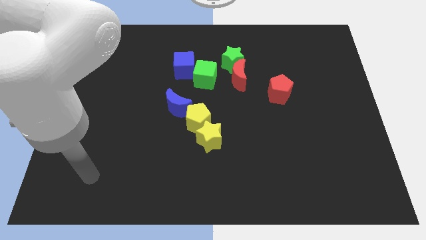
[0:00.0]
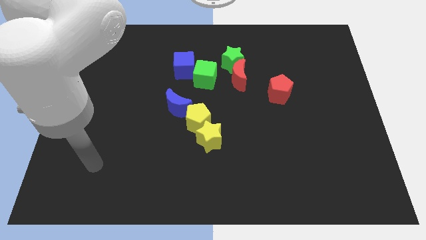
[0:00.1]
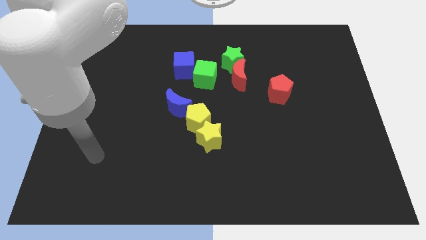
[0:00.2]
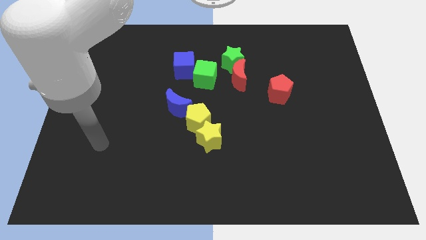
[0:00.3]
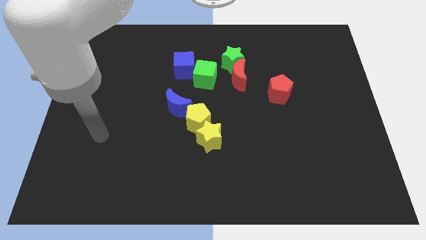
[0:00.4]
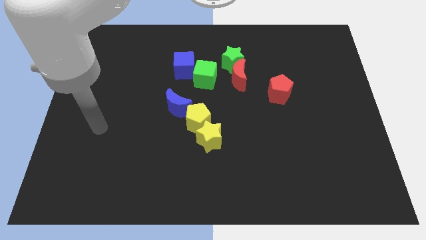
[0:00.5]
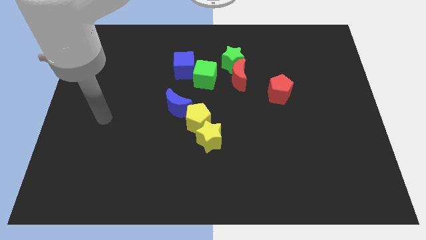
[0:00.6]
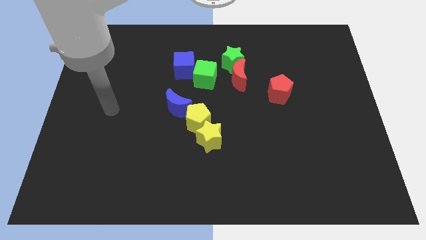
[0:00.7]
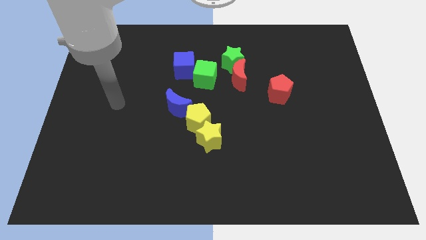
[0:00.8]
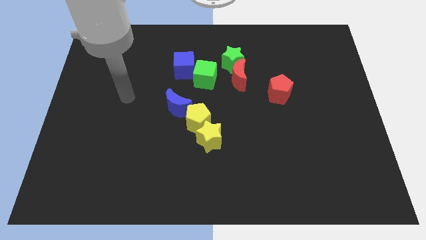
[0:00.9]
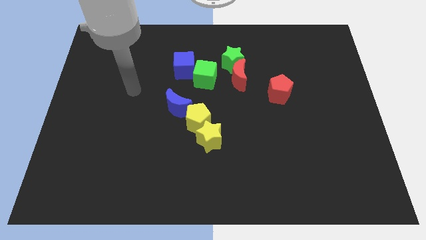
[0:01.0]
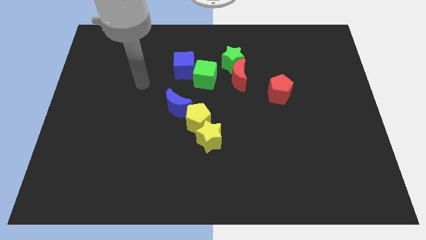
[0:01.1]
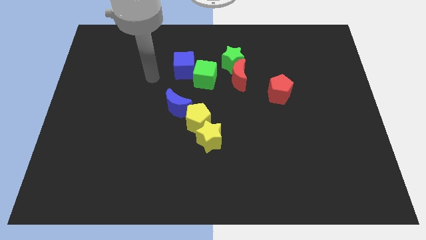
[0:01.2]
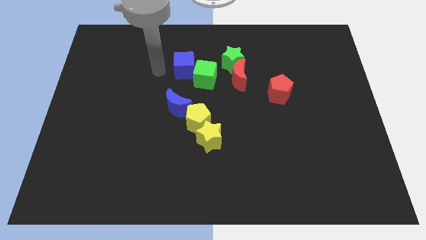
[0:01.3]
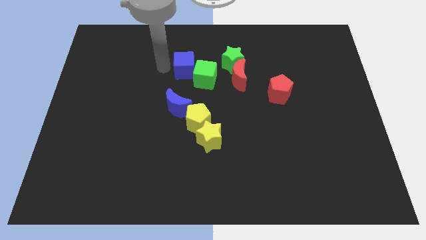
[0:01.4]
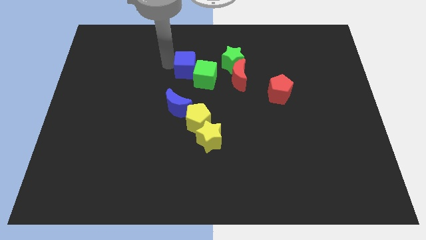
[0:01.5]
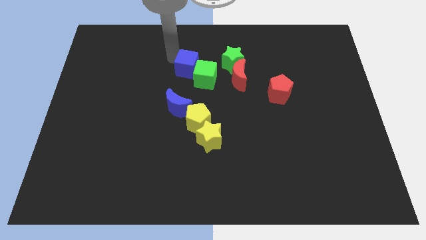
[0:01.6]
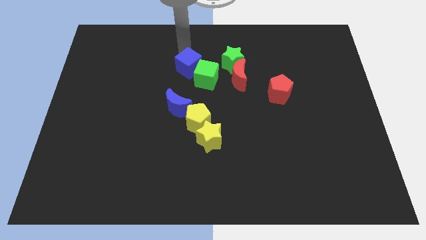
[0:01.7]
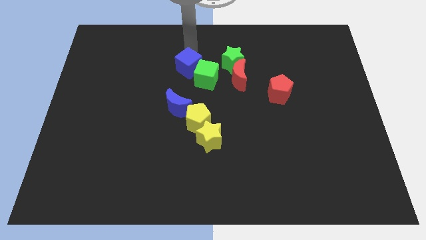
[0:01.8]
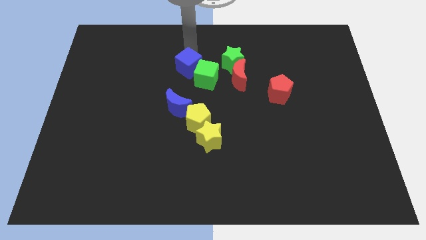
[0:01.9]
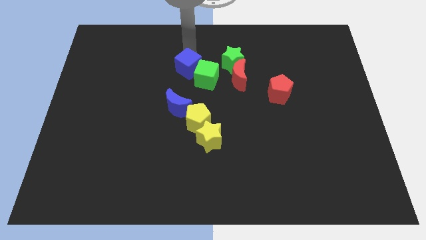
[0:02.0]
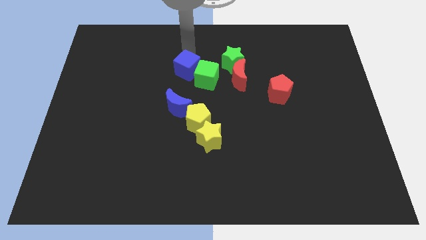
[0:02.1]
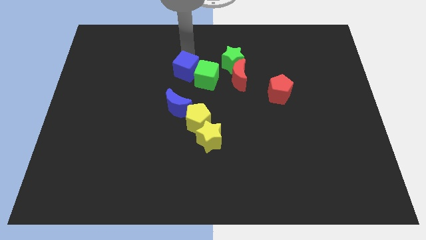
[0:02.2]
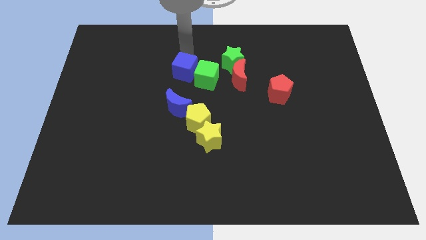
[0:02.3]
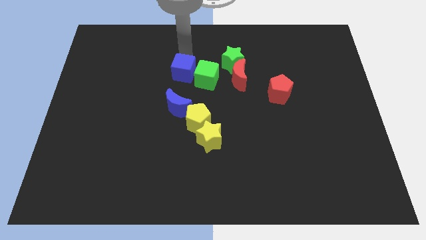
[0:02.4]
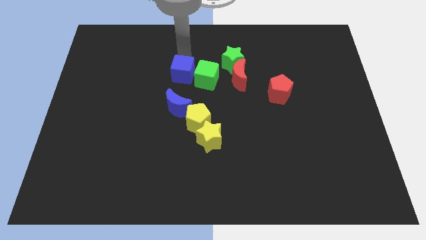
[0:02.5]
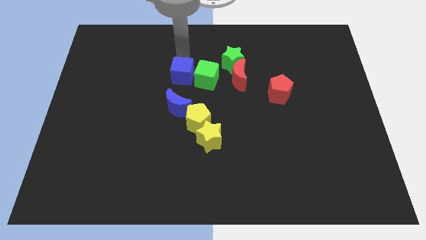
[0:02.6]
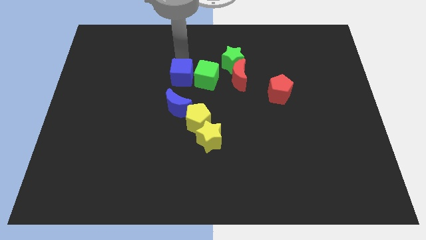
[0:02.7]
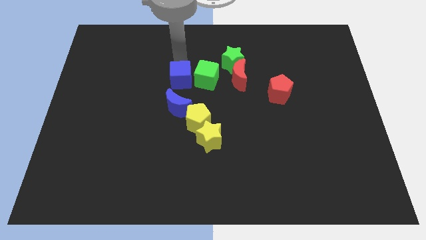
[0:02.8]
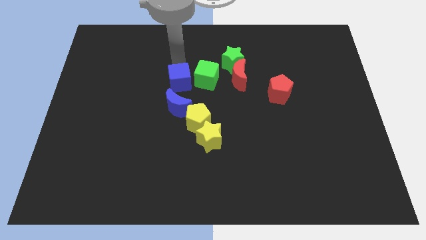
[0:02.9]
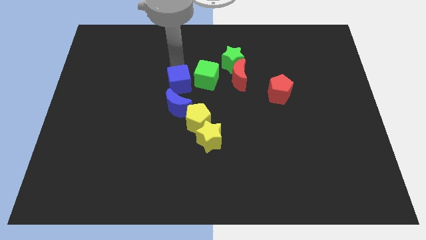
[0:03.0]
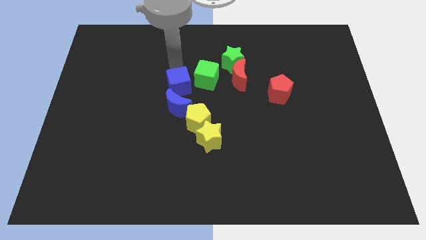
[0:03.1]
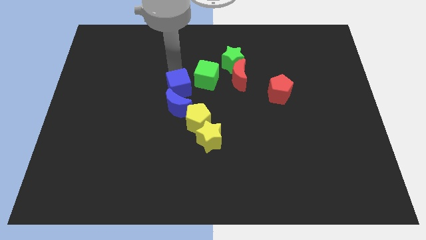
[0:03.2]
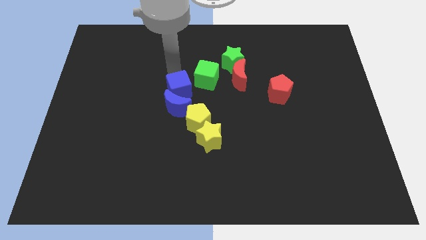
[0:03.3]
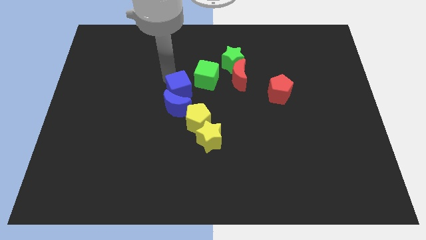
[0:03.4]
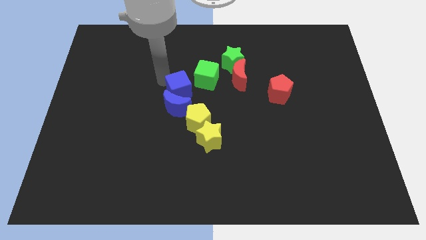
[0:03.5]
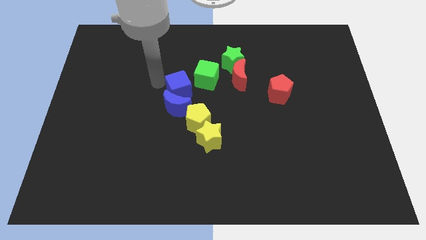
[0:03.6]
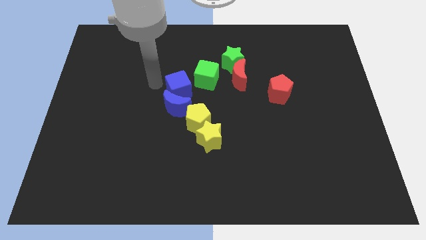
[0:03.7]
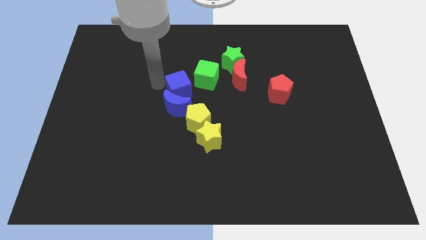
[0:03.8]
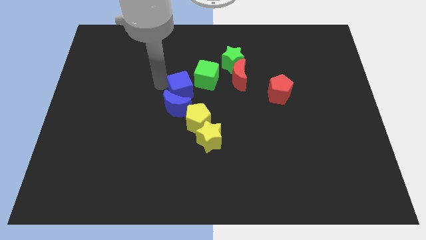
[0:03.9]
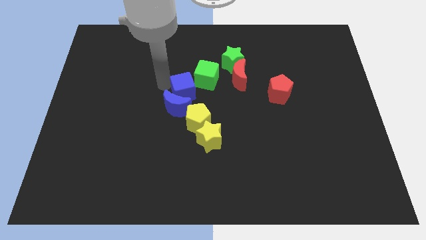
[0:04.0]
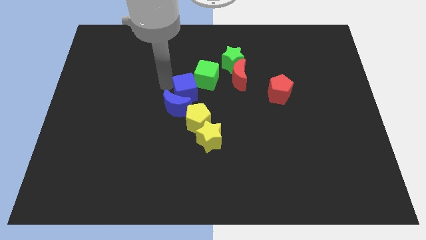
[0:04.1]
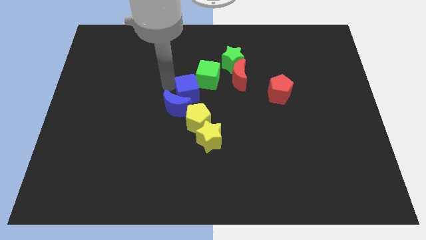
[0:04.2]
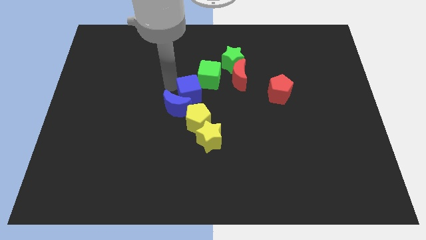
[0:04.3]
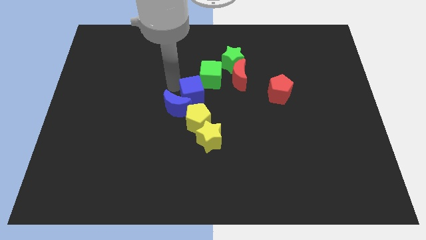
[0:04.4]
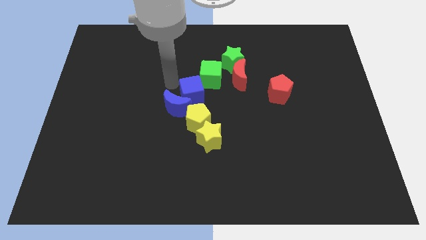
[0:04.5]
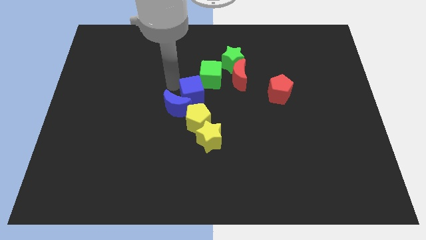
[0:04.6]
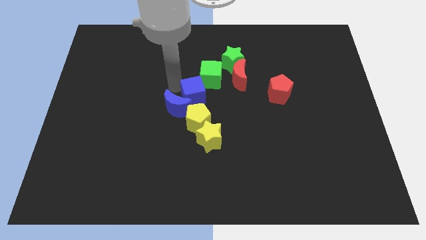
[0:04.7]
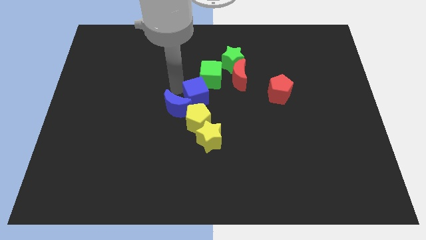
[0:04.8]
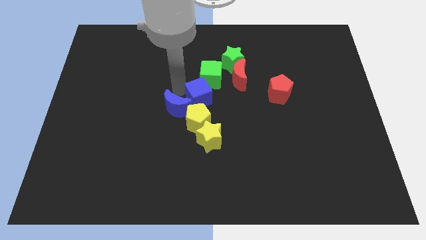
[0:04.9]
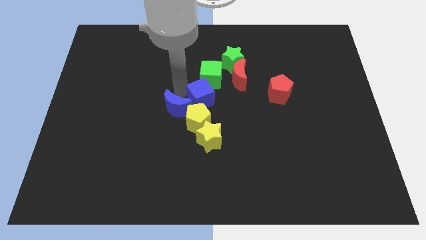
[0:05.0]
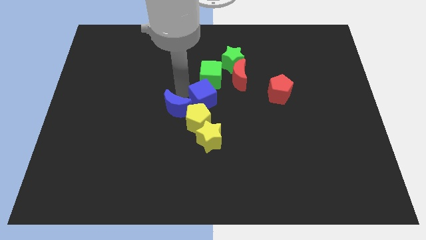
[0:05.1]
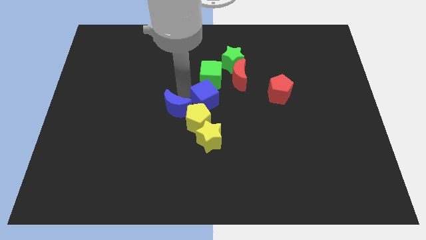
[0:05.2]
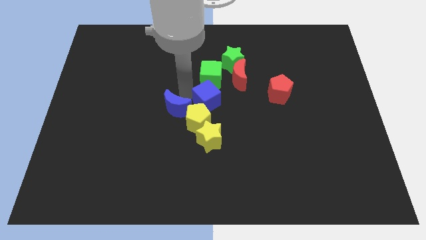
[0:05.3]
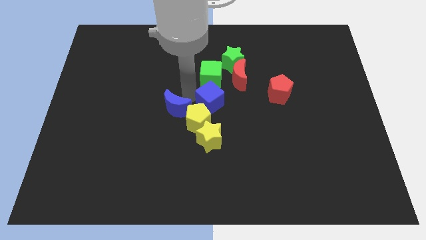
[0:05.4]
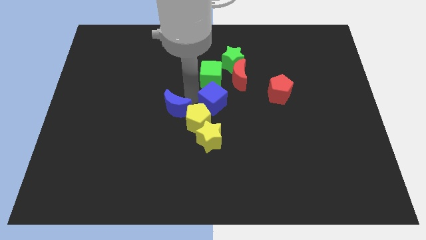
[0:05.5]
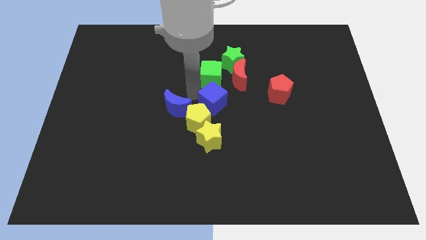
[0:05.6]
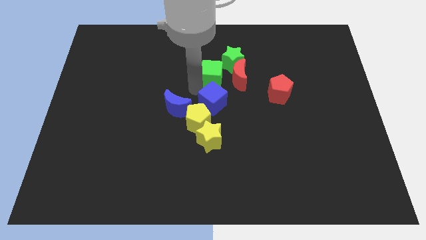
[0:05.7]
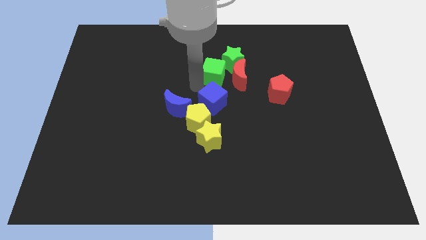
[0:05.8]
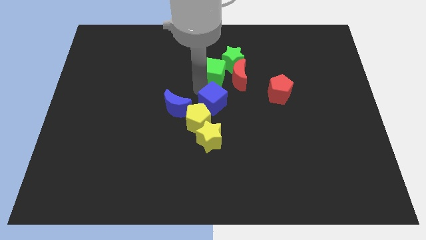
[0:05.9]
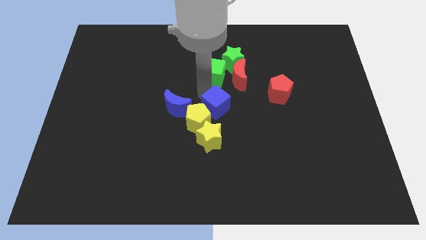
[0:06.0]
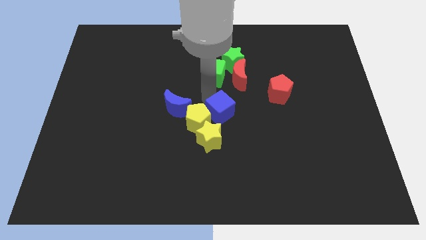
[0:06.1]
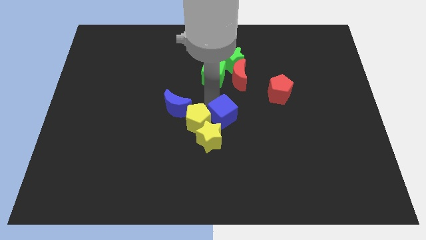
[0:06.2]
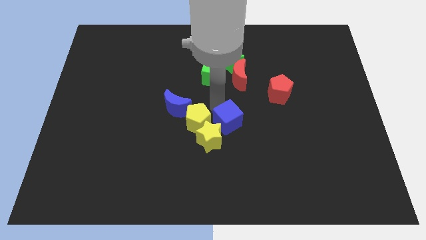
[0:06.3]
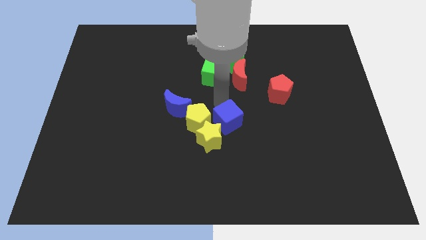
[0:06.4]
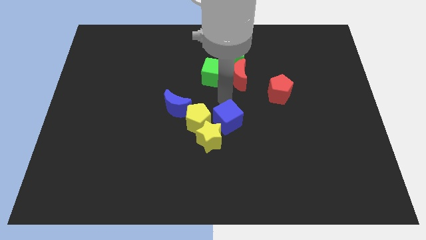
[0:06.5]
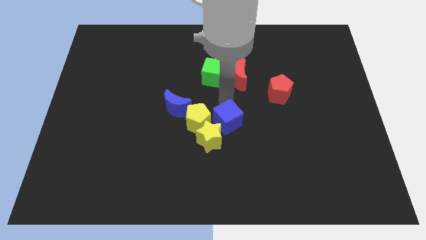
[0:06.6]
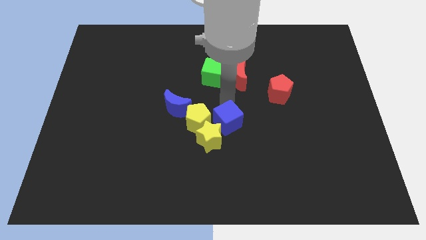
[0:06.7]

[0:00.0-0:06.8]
move the blue cube next to the yellow star
